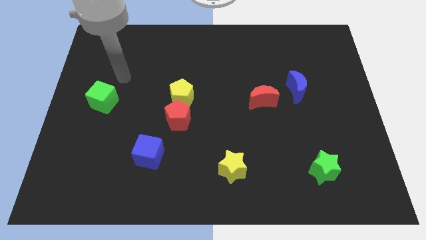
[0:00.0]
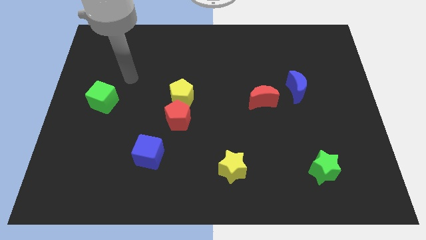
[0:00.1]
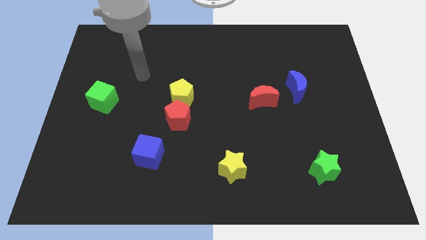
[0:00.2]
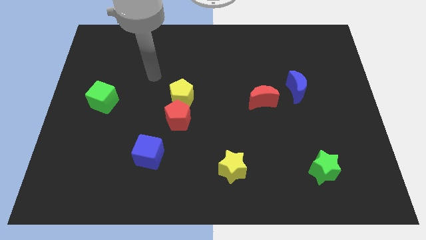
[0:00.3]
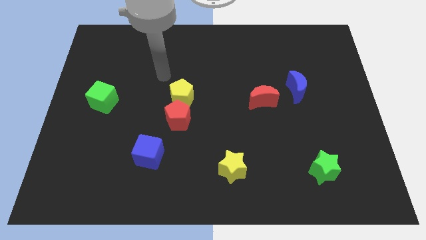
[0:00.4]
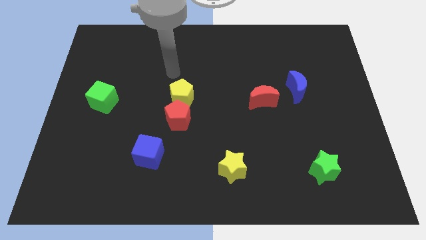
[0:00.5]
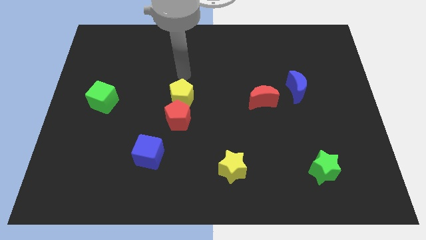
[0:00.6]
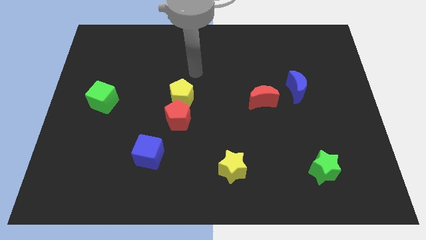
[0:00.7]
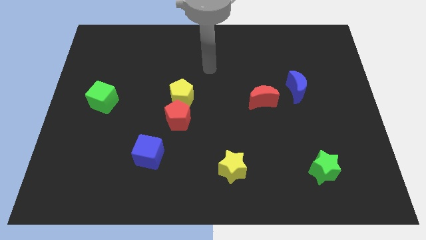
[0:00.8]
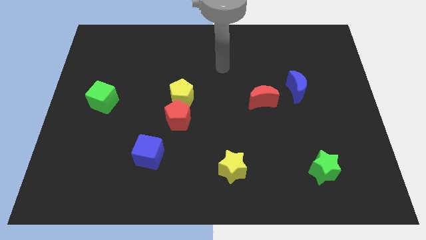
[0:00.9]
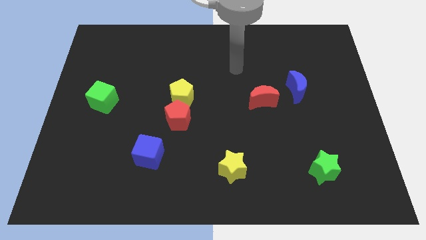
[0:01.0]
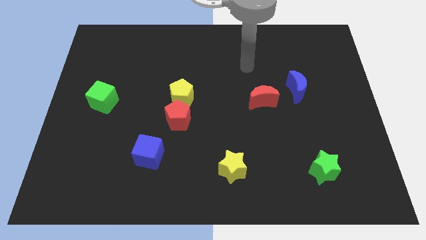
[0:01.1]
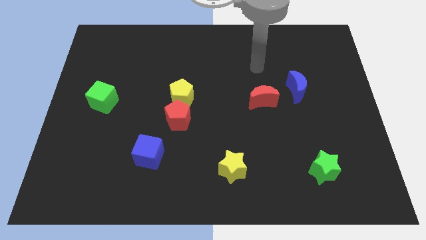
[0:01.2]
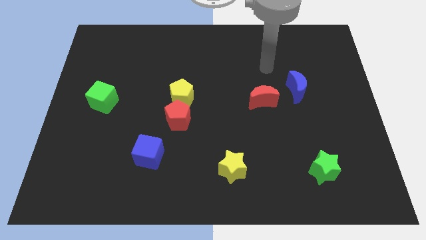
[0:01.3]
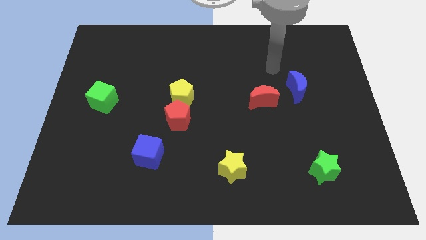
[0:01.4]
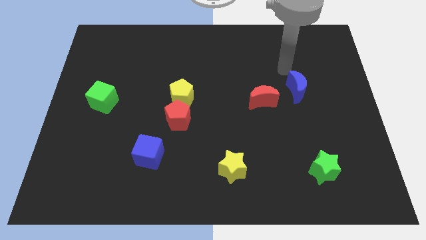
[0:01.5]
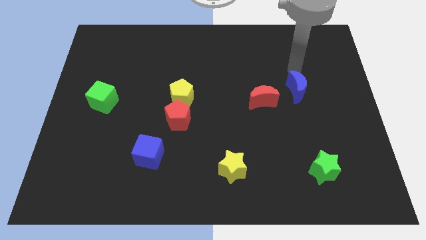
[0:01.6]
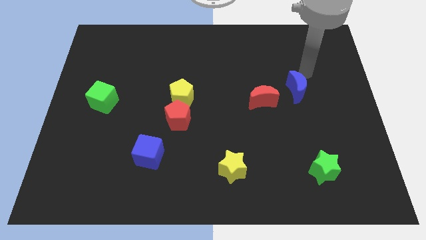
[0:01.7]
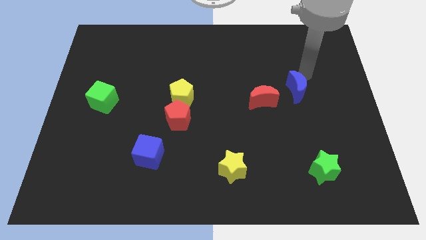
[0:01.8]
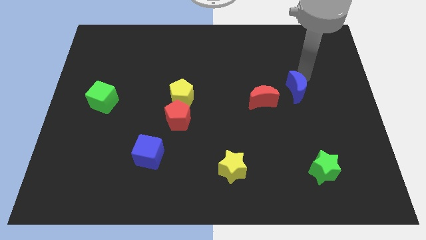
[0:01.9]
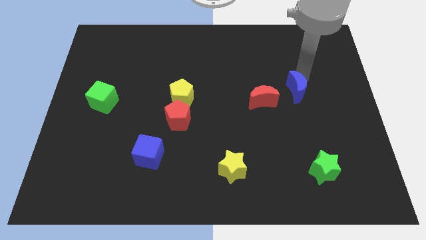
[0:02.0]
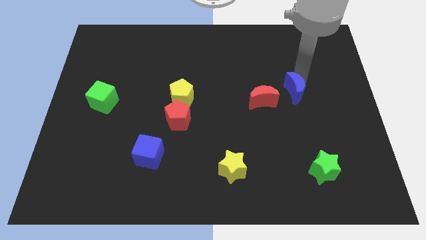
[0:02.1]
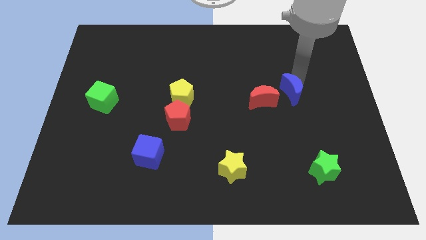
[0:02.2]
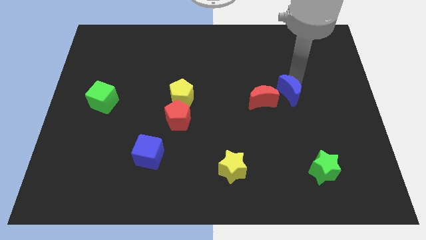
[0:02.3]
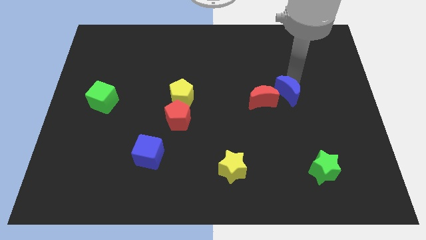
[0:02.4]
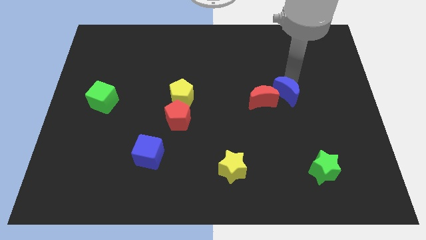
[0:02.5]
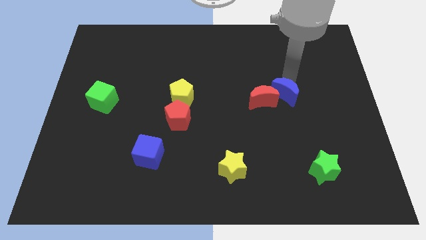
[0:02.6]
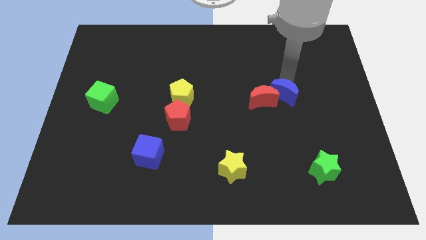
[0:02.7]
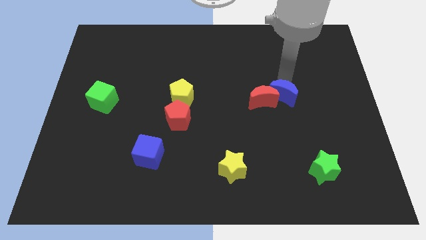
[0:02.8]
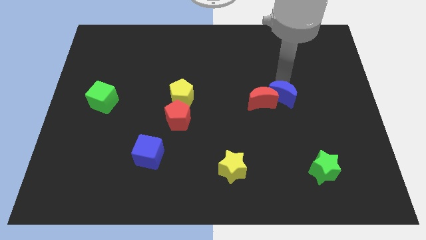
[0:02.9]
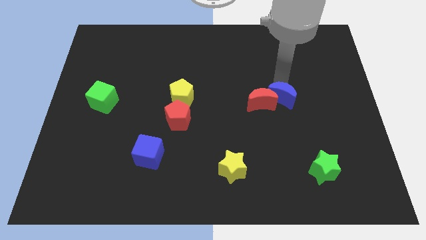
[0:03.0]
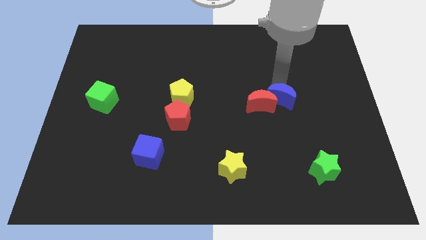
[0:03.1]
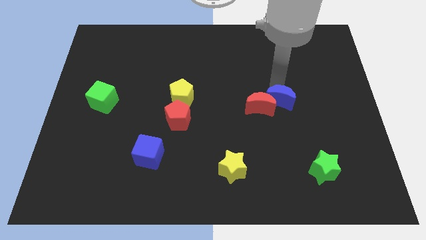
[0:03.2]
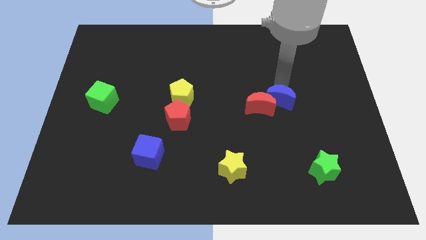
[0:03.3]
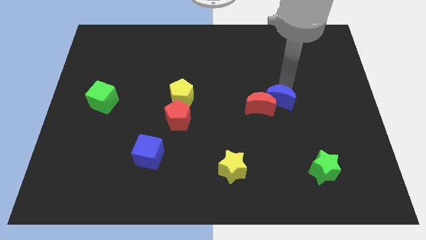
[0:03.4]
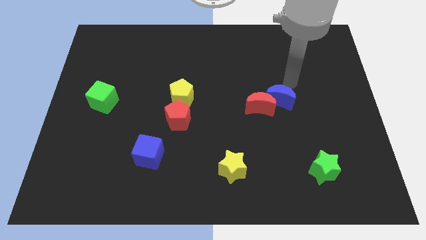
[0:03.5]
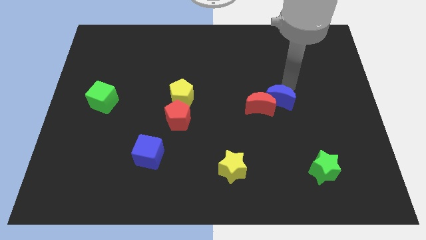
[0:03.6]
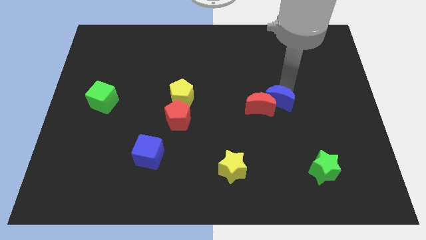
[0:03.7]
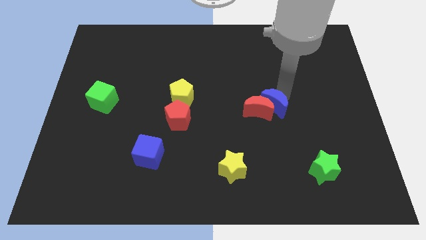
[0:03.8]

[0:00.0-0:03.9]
slightly move the blue moon downwards and left diagonally

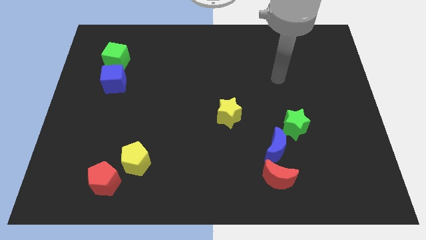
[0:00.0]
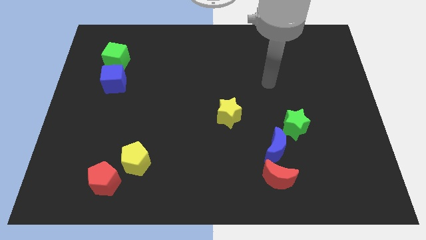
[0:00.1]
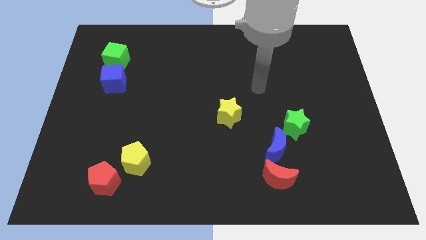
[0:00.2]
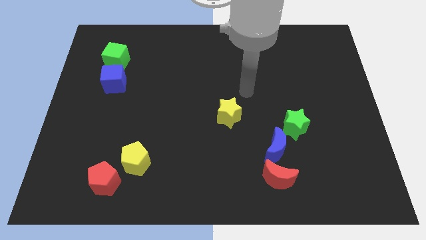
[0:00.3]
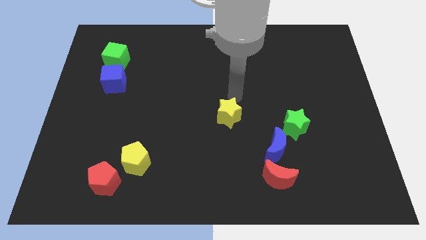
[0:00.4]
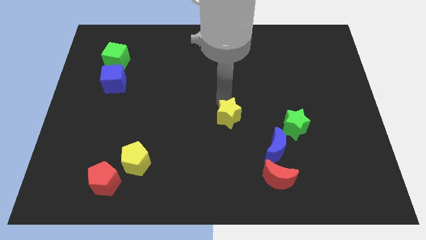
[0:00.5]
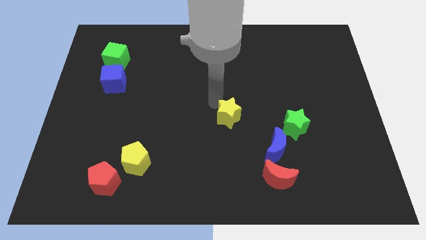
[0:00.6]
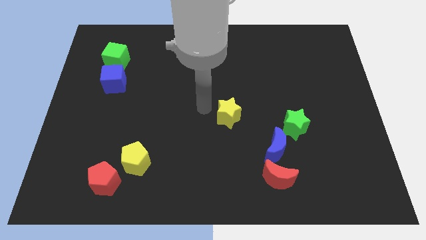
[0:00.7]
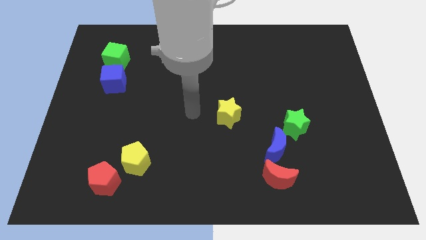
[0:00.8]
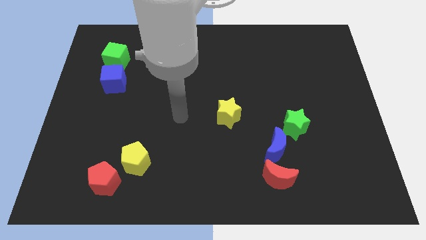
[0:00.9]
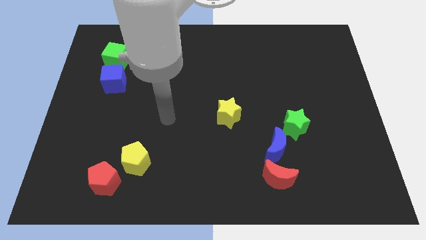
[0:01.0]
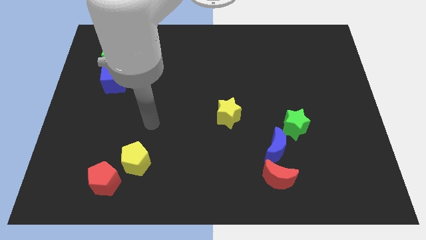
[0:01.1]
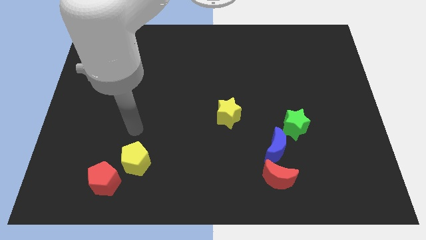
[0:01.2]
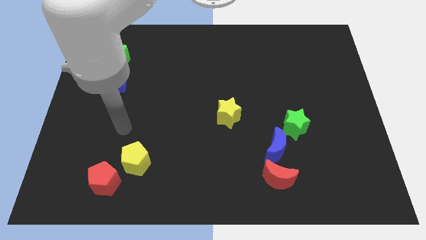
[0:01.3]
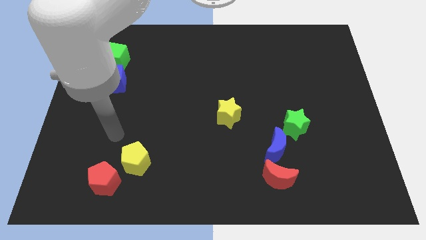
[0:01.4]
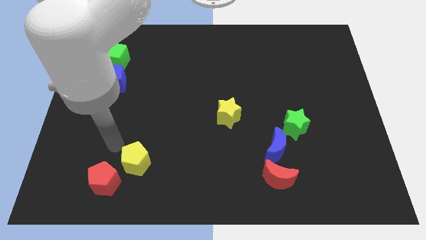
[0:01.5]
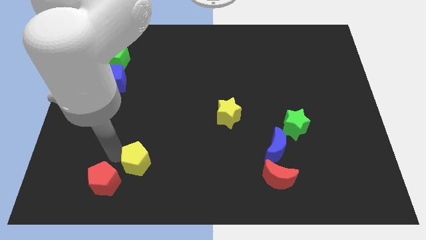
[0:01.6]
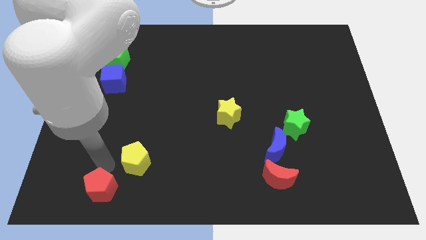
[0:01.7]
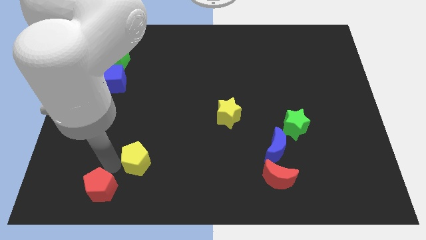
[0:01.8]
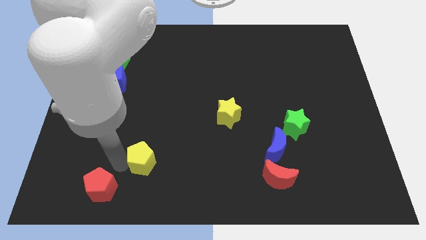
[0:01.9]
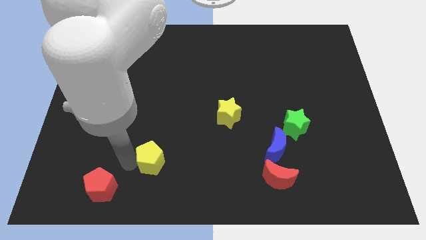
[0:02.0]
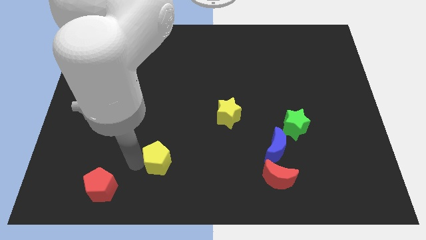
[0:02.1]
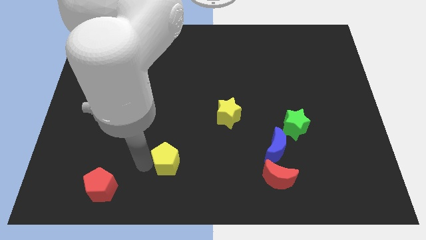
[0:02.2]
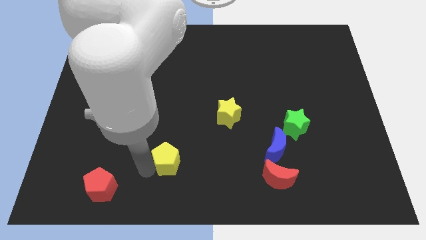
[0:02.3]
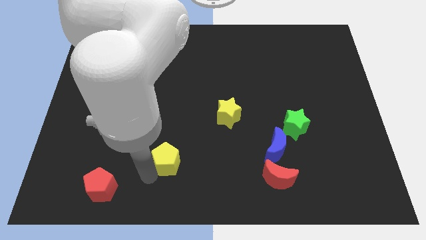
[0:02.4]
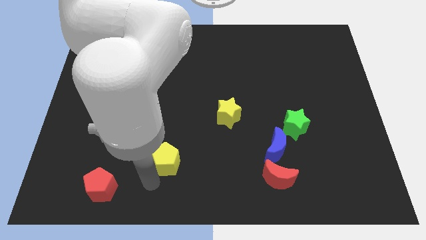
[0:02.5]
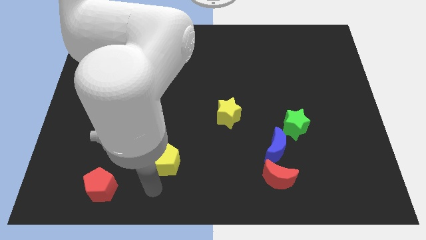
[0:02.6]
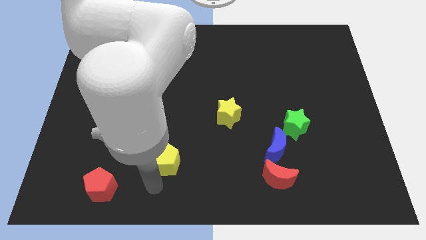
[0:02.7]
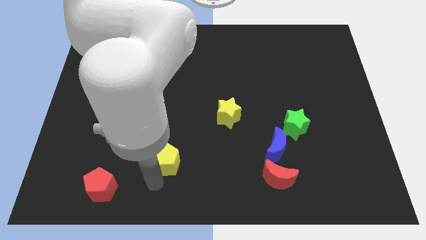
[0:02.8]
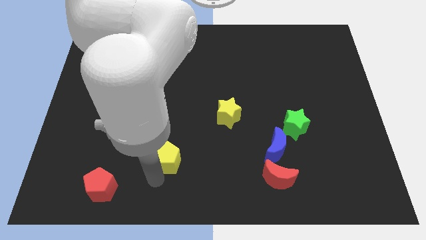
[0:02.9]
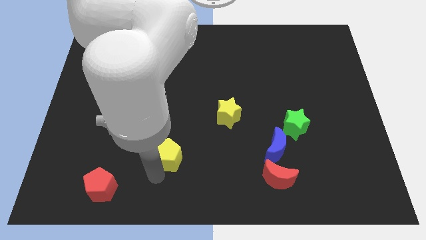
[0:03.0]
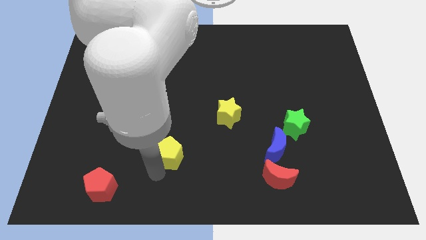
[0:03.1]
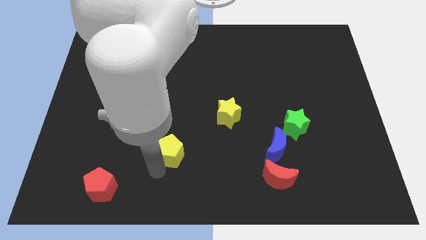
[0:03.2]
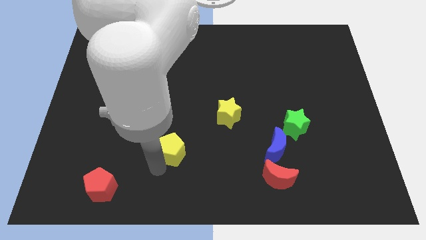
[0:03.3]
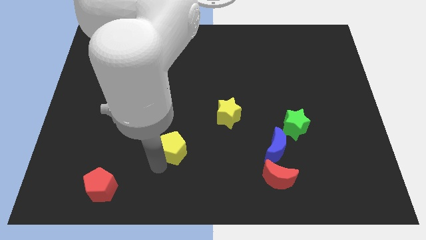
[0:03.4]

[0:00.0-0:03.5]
slightly move the yellow pentagon up and then right

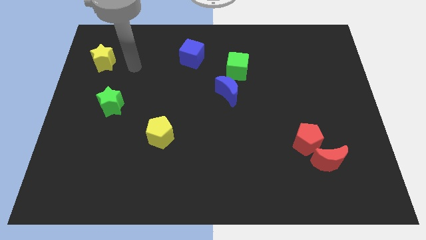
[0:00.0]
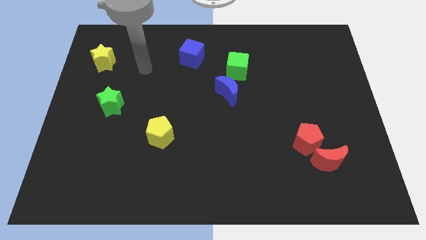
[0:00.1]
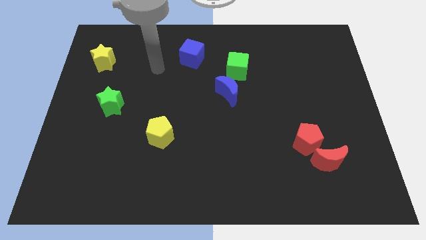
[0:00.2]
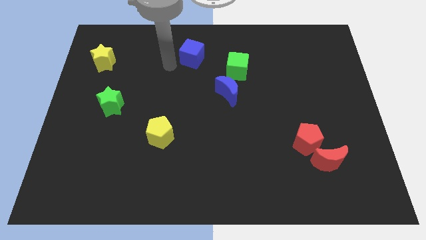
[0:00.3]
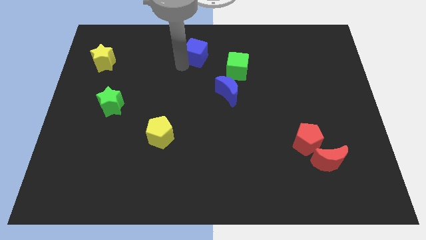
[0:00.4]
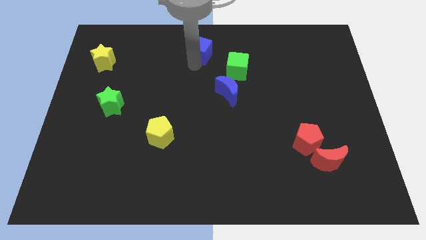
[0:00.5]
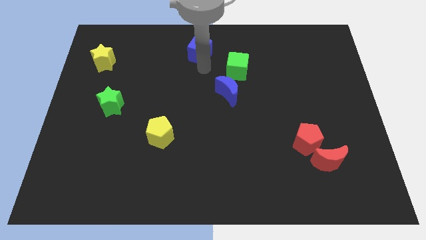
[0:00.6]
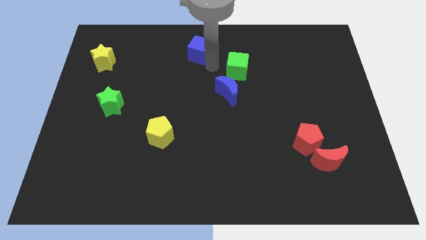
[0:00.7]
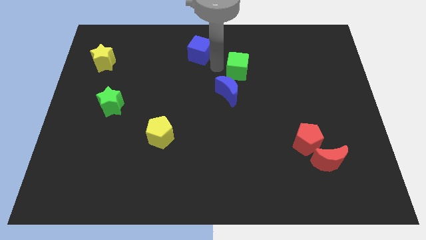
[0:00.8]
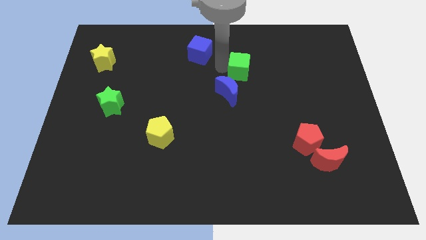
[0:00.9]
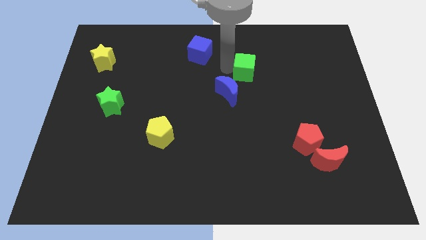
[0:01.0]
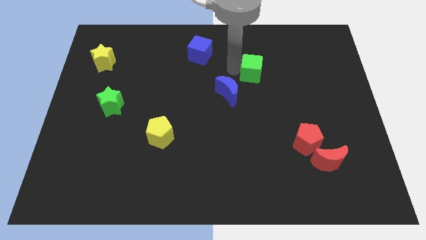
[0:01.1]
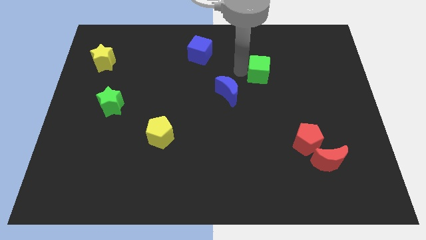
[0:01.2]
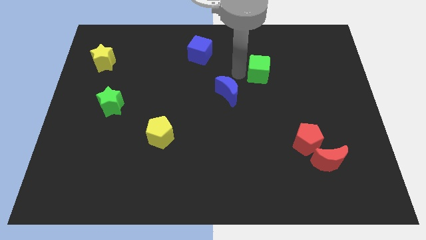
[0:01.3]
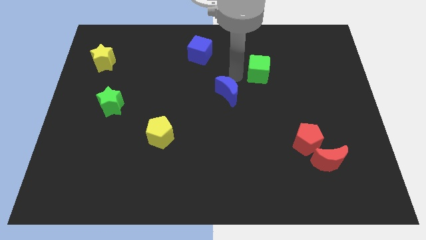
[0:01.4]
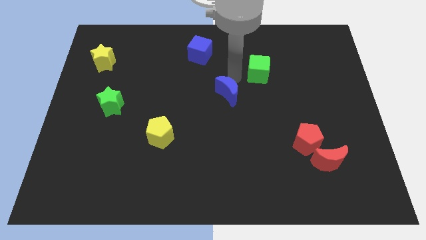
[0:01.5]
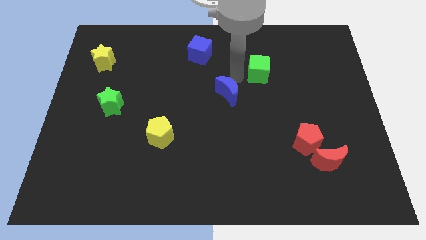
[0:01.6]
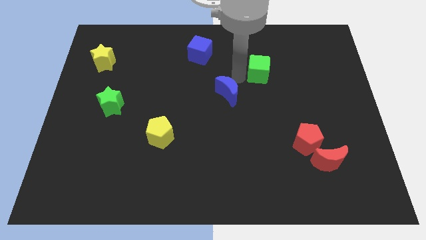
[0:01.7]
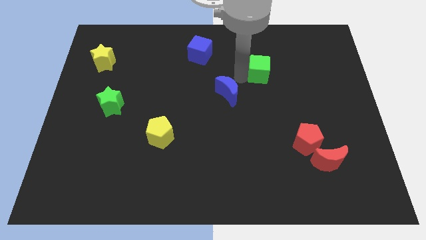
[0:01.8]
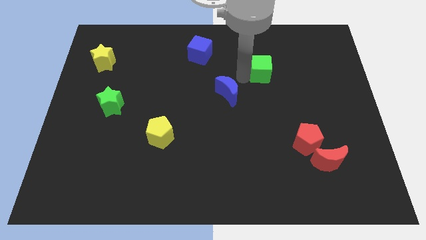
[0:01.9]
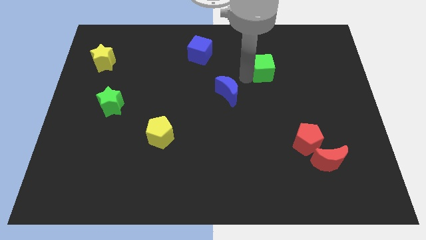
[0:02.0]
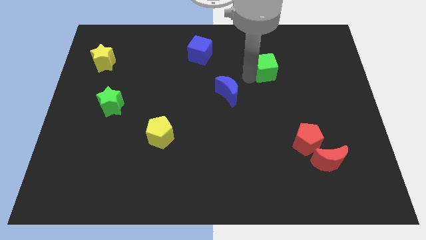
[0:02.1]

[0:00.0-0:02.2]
move the green cube slightly right
